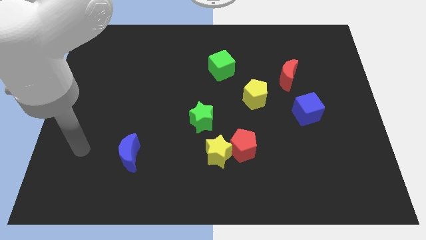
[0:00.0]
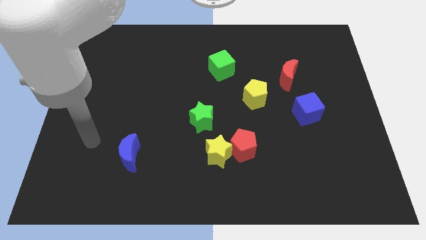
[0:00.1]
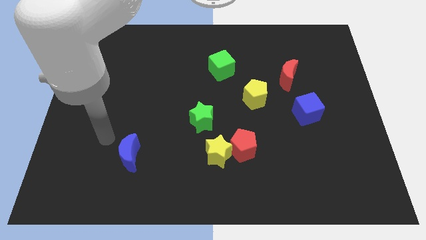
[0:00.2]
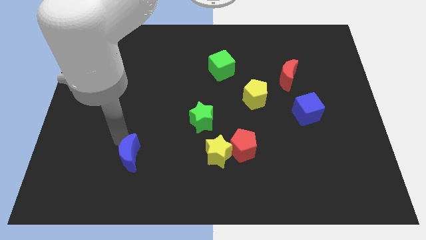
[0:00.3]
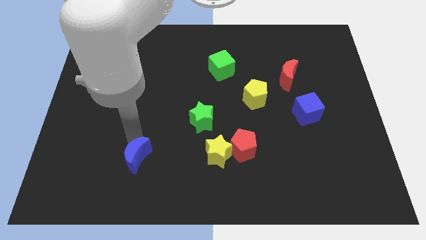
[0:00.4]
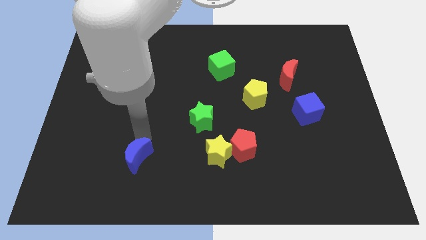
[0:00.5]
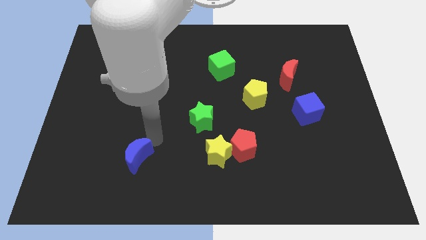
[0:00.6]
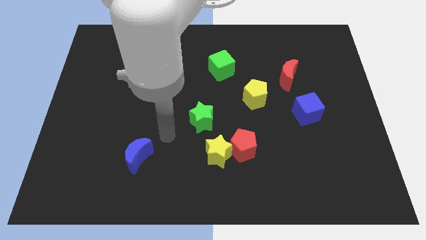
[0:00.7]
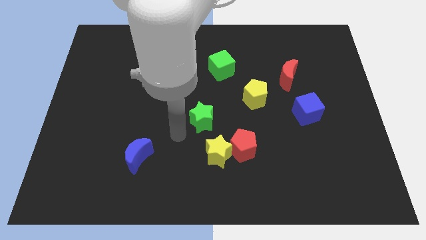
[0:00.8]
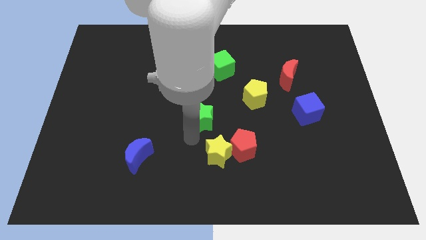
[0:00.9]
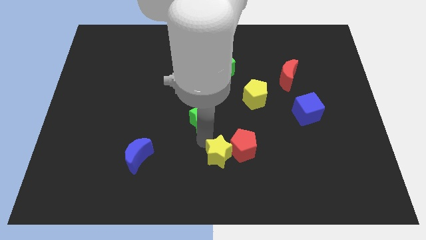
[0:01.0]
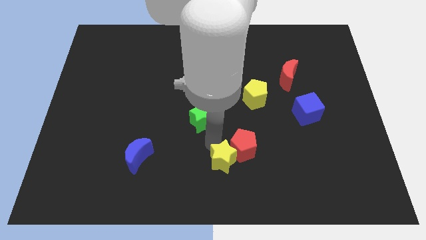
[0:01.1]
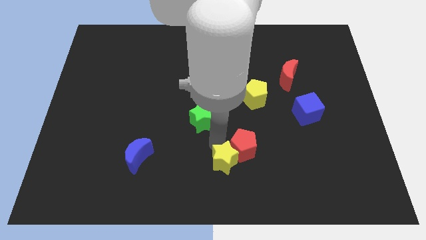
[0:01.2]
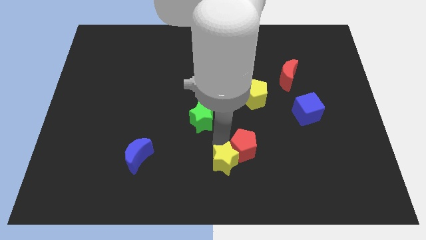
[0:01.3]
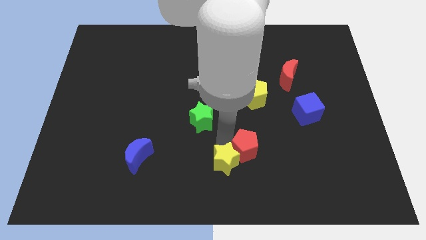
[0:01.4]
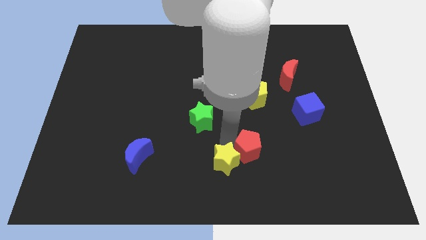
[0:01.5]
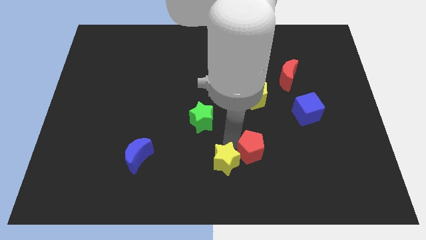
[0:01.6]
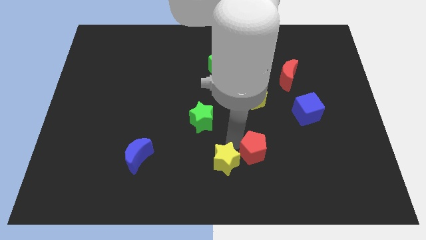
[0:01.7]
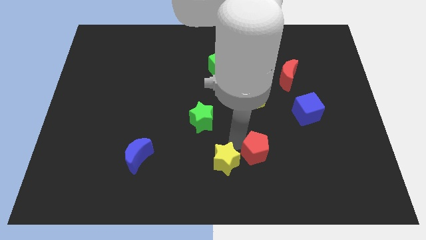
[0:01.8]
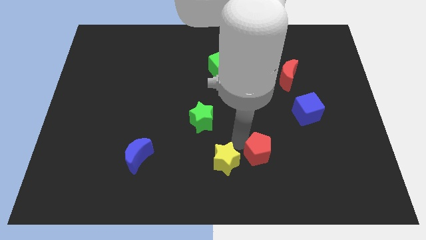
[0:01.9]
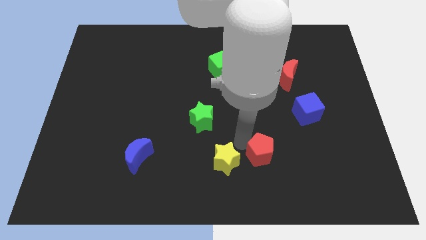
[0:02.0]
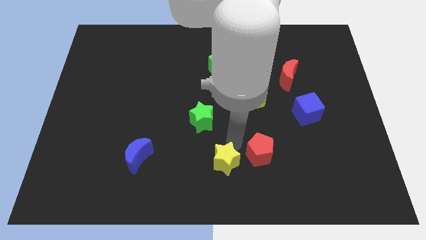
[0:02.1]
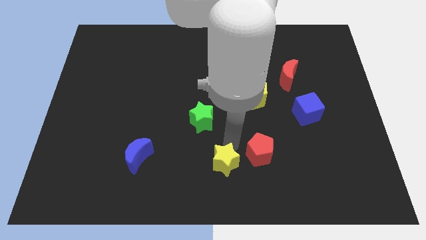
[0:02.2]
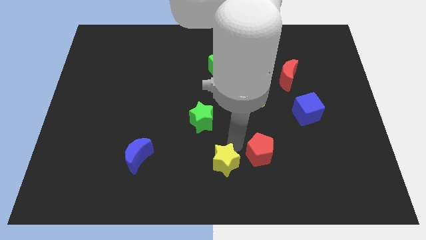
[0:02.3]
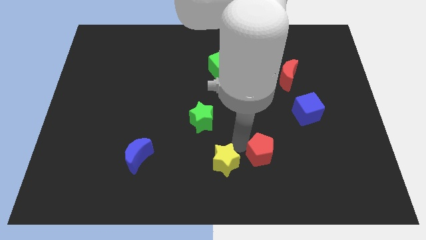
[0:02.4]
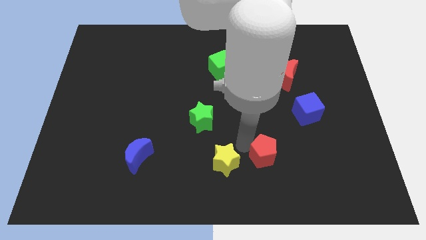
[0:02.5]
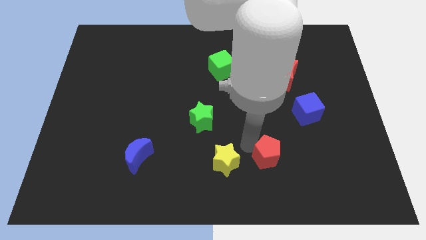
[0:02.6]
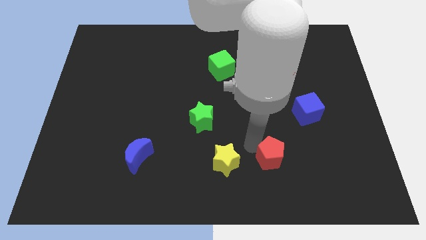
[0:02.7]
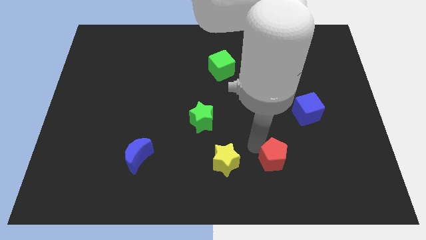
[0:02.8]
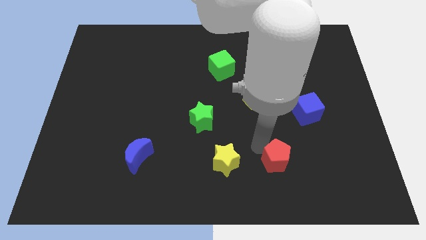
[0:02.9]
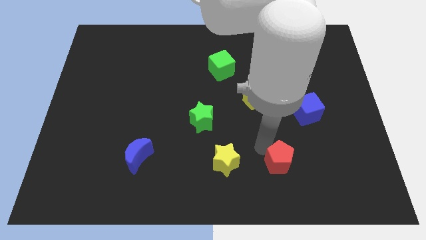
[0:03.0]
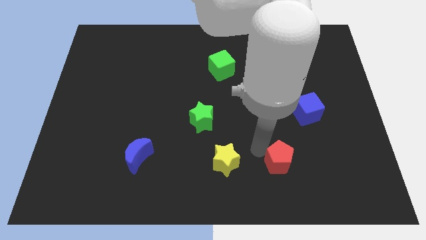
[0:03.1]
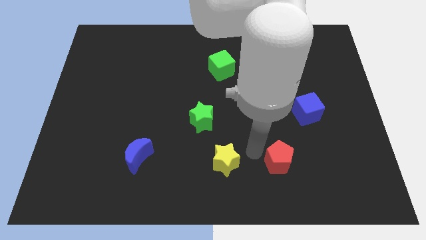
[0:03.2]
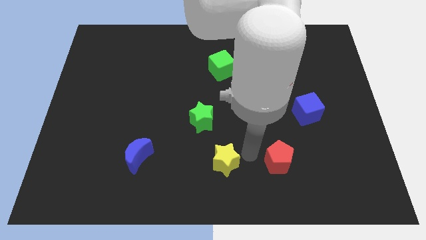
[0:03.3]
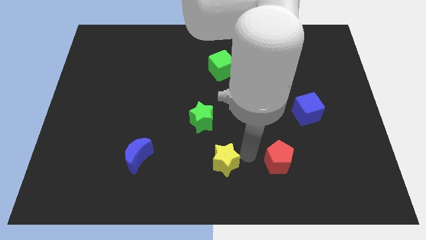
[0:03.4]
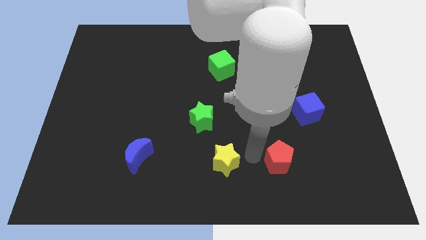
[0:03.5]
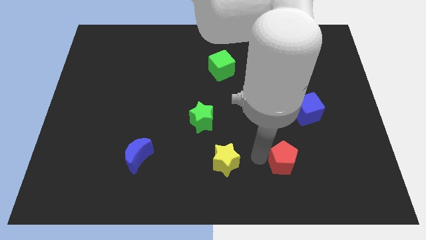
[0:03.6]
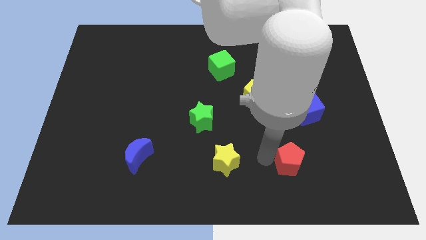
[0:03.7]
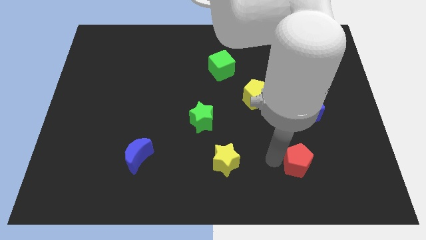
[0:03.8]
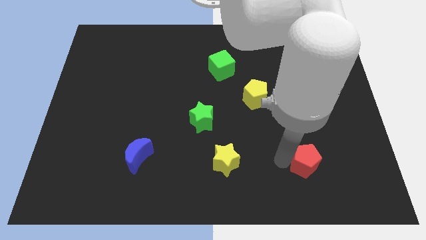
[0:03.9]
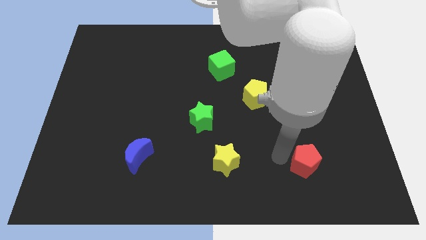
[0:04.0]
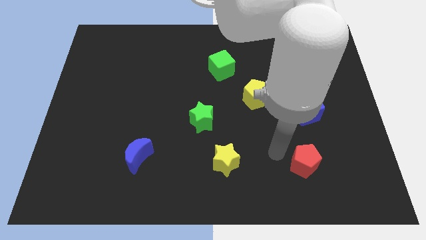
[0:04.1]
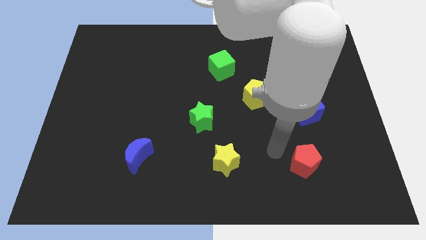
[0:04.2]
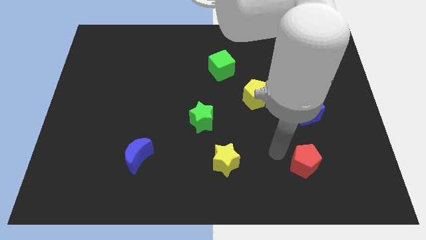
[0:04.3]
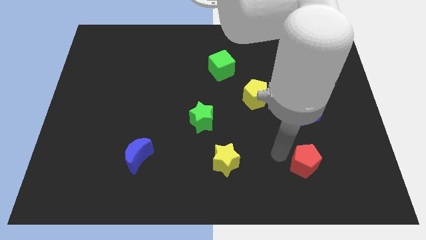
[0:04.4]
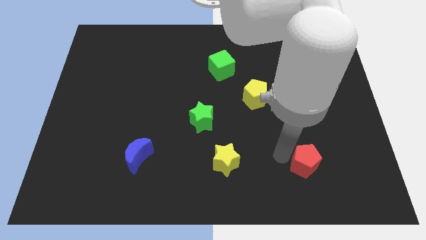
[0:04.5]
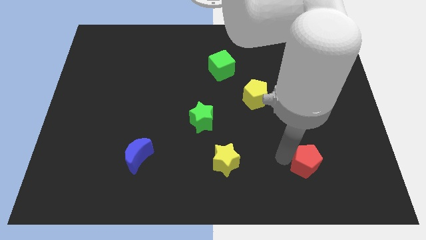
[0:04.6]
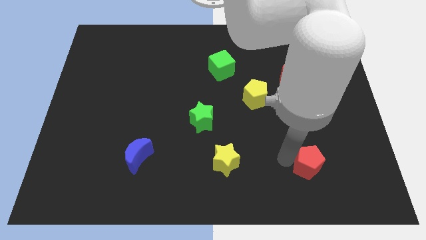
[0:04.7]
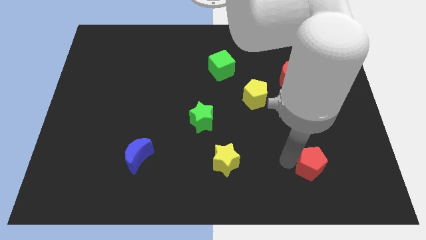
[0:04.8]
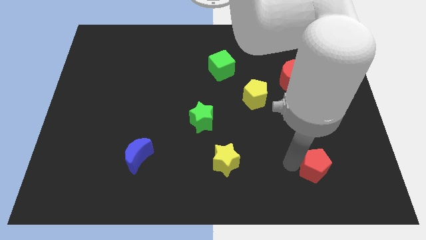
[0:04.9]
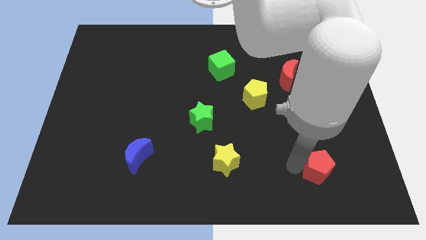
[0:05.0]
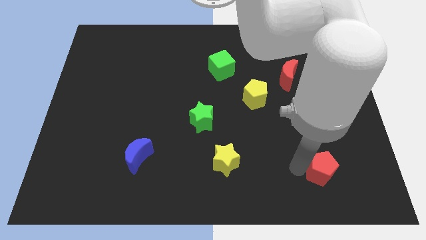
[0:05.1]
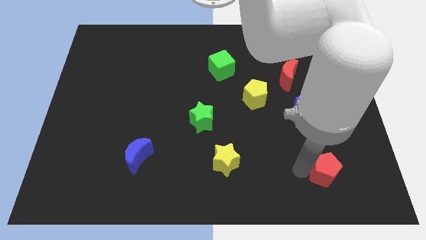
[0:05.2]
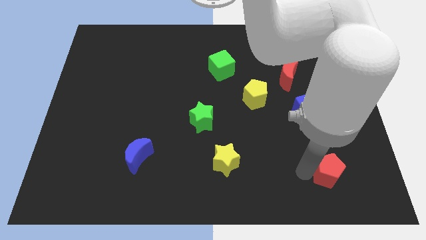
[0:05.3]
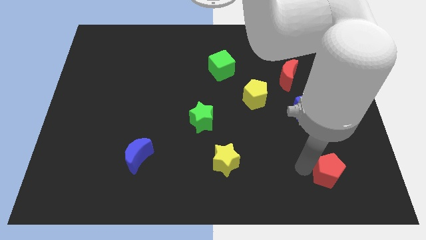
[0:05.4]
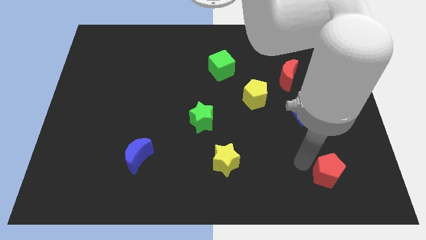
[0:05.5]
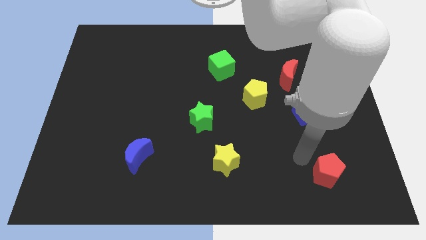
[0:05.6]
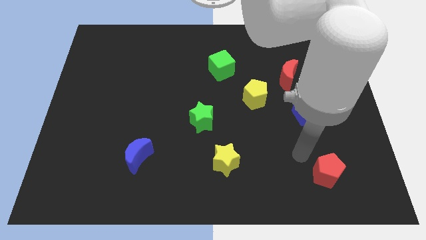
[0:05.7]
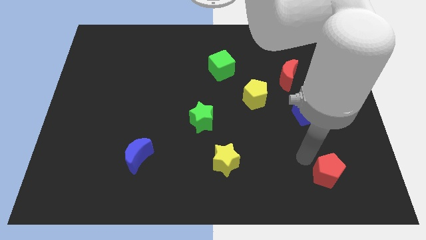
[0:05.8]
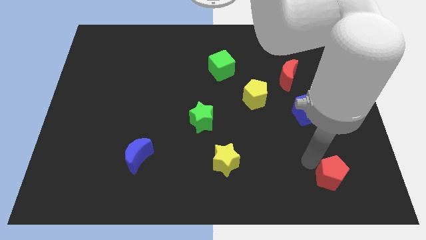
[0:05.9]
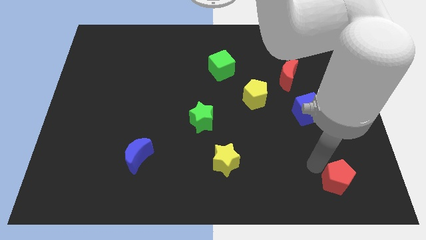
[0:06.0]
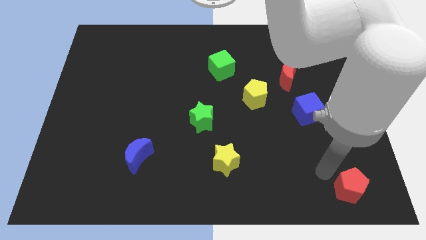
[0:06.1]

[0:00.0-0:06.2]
push the red pentagon to the bottom right corner

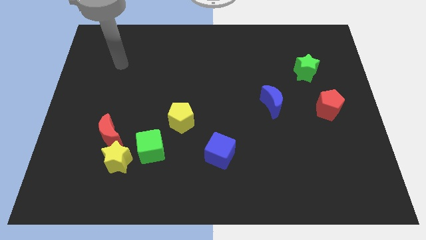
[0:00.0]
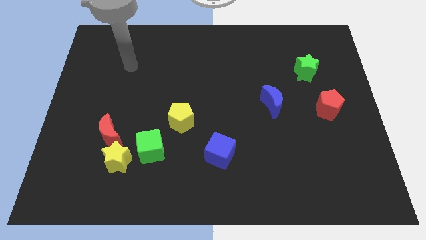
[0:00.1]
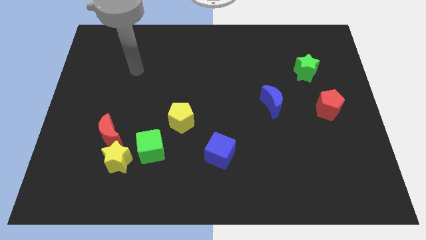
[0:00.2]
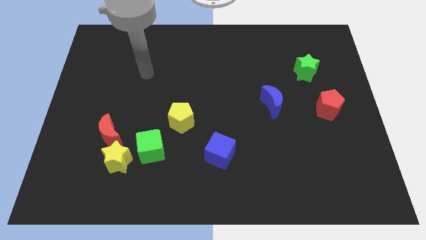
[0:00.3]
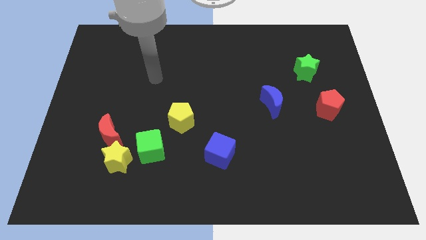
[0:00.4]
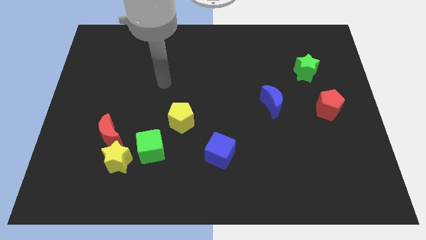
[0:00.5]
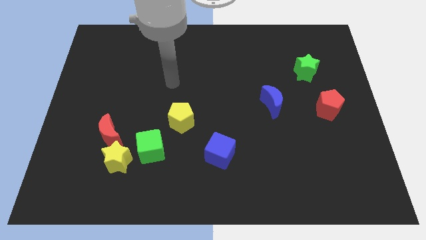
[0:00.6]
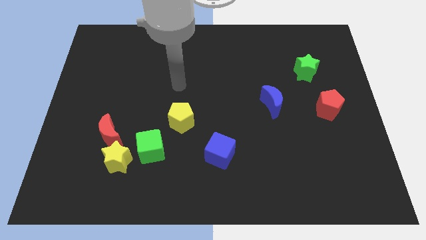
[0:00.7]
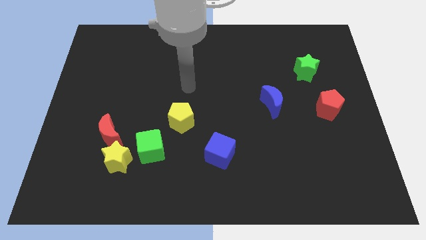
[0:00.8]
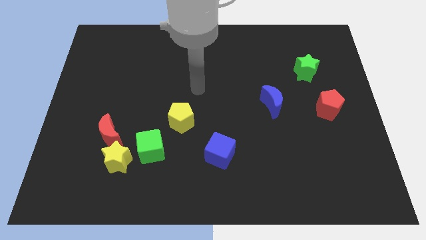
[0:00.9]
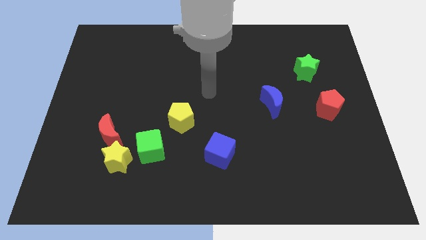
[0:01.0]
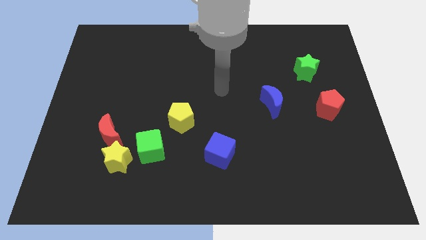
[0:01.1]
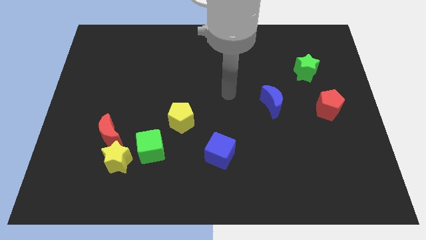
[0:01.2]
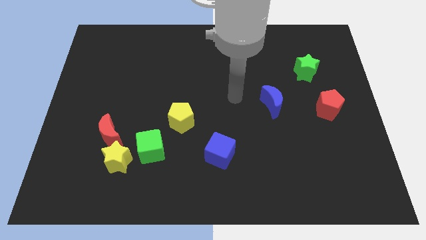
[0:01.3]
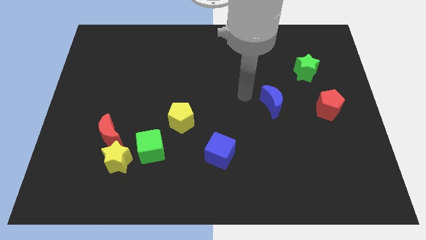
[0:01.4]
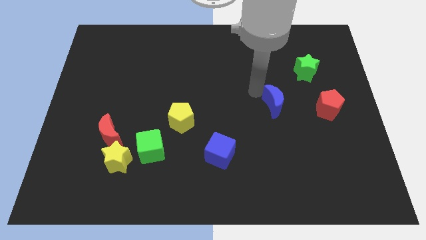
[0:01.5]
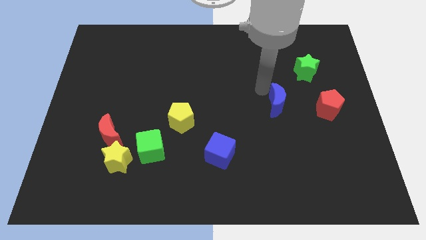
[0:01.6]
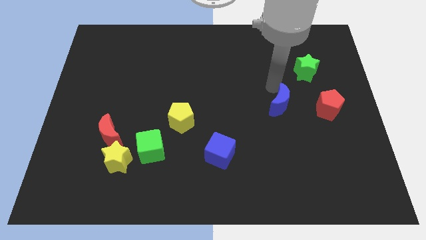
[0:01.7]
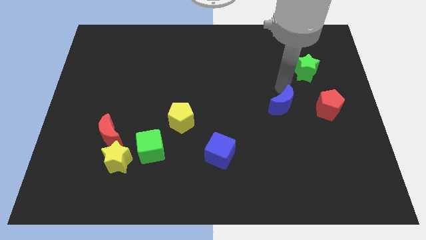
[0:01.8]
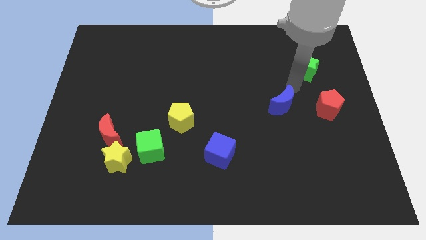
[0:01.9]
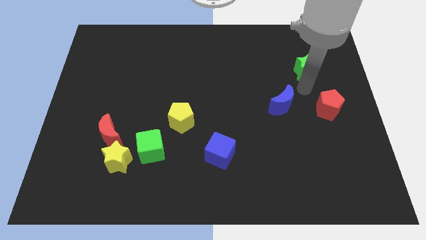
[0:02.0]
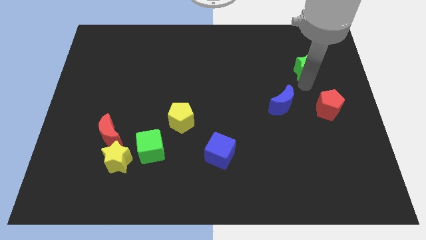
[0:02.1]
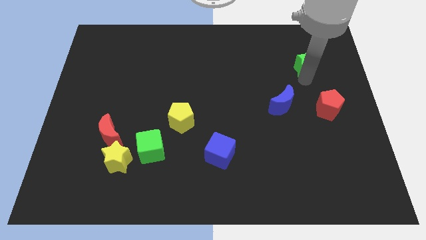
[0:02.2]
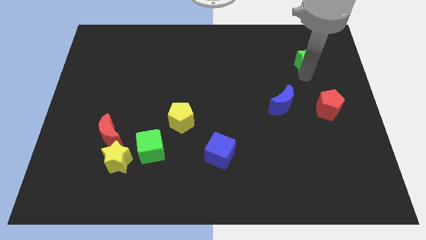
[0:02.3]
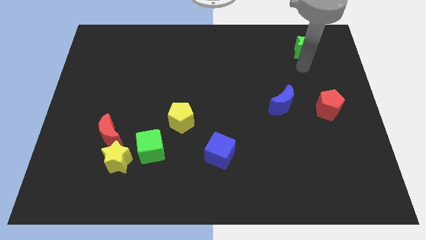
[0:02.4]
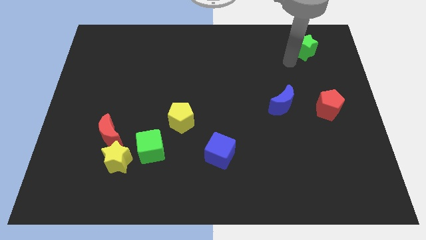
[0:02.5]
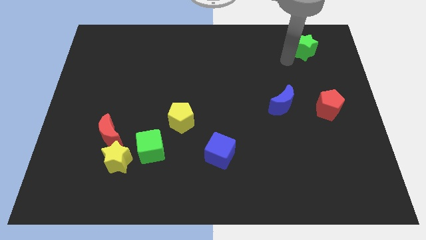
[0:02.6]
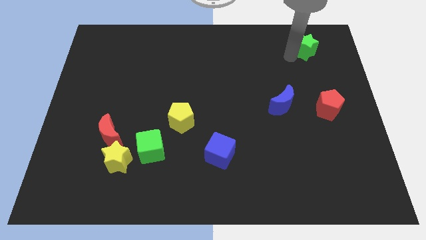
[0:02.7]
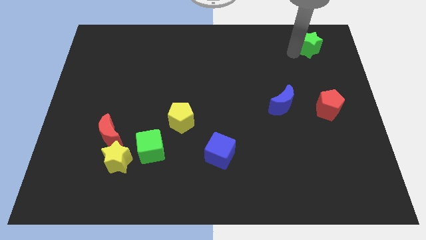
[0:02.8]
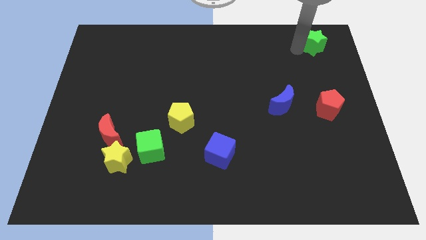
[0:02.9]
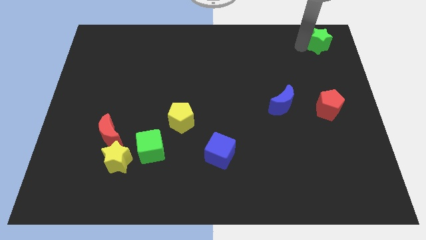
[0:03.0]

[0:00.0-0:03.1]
push the green star to the top right of the board
